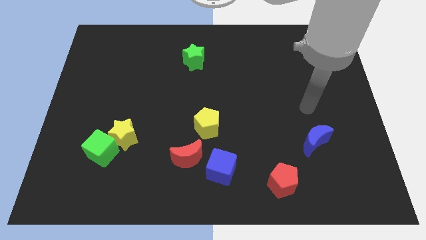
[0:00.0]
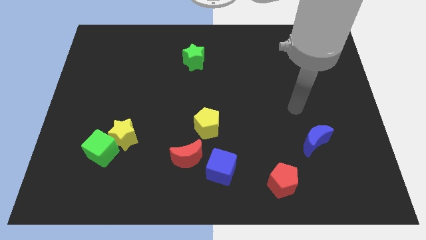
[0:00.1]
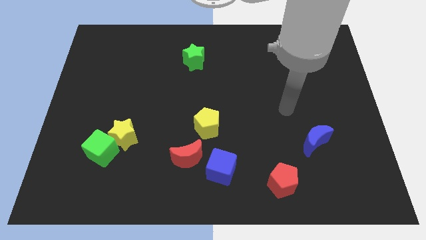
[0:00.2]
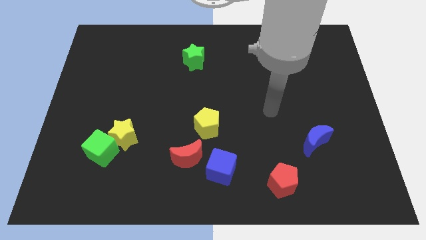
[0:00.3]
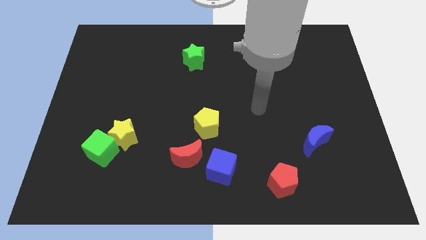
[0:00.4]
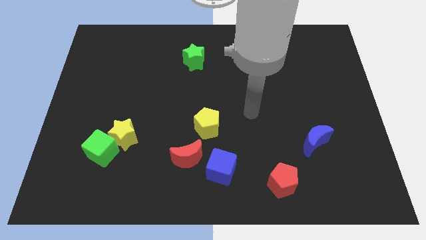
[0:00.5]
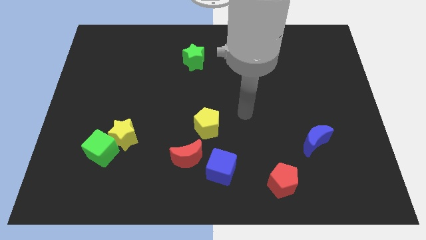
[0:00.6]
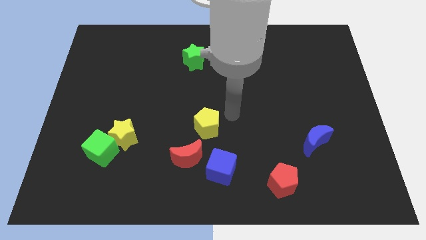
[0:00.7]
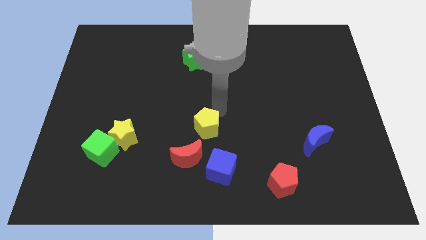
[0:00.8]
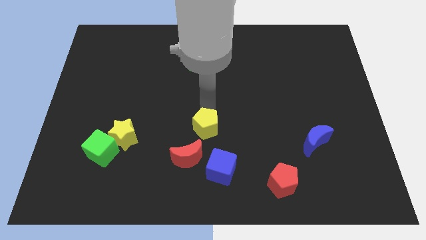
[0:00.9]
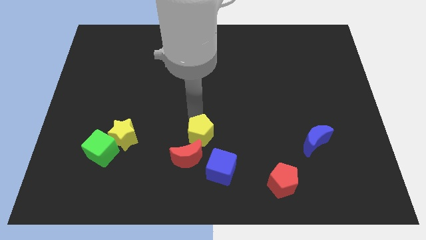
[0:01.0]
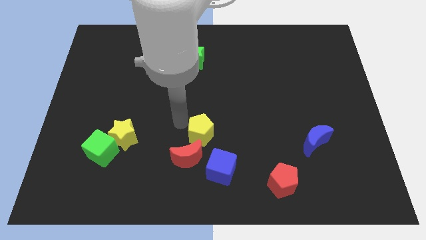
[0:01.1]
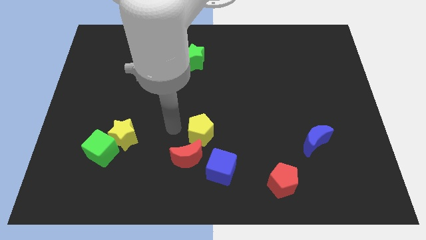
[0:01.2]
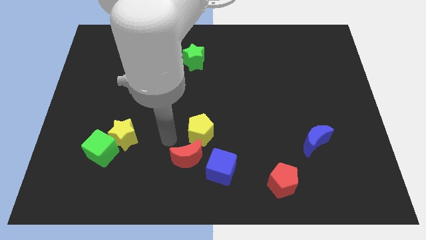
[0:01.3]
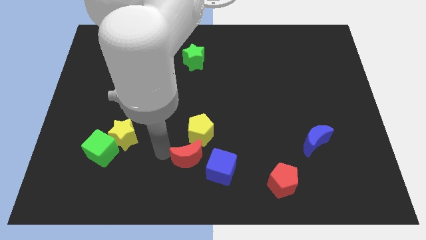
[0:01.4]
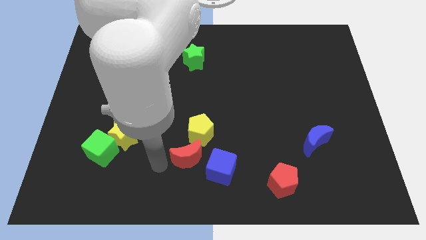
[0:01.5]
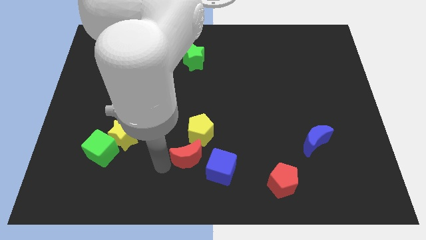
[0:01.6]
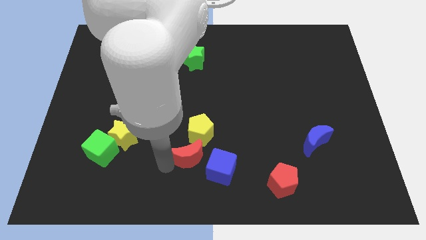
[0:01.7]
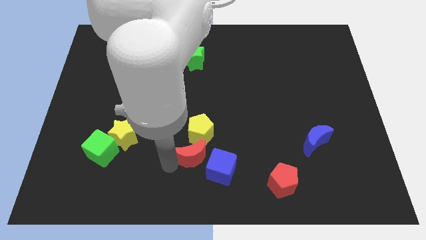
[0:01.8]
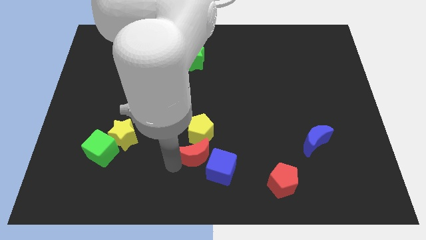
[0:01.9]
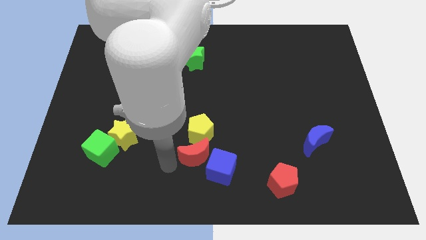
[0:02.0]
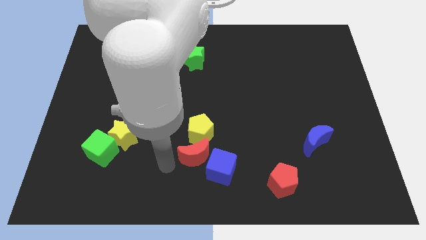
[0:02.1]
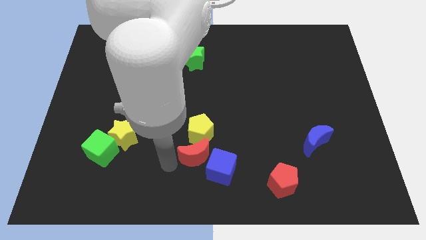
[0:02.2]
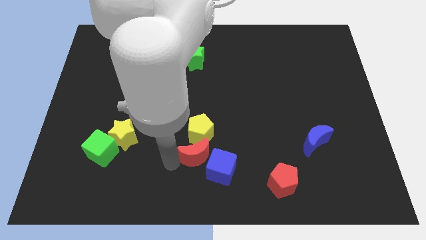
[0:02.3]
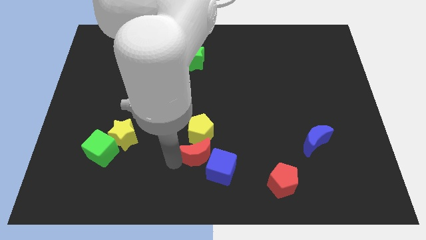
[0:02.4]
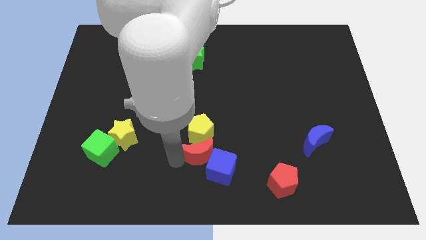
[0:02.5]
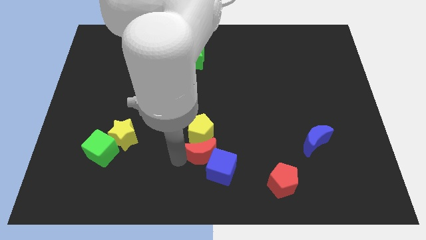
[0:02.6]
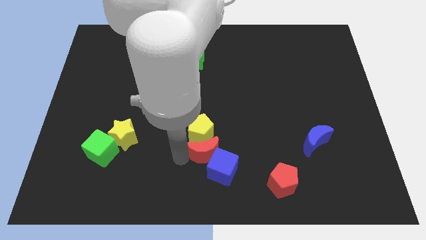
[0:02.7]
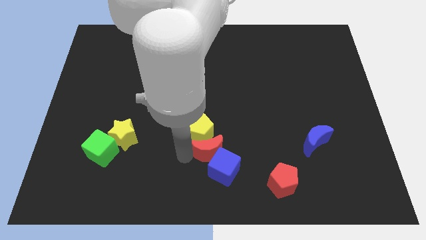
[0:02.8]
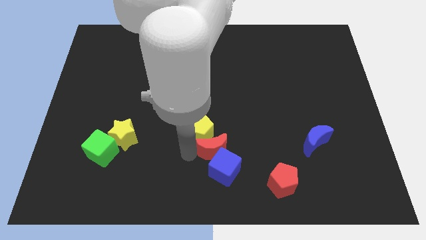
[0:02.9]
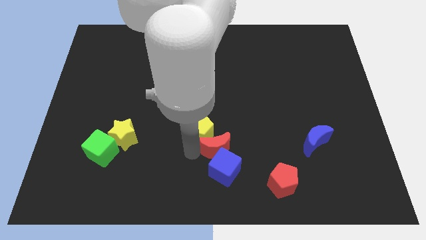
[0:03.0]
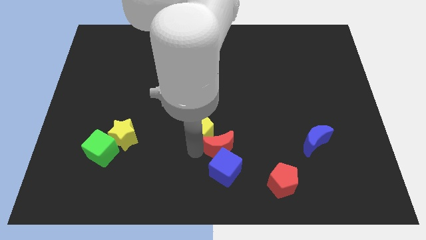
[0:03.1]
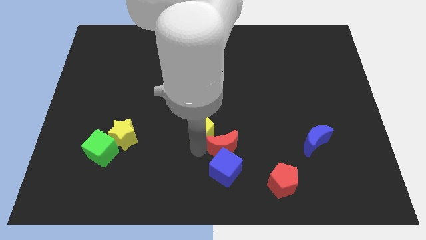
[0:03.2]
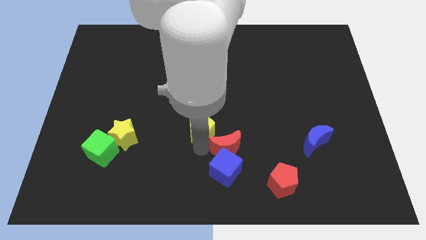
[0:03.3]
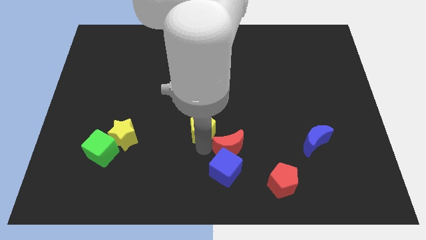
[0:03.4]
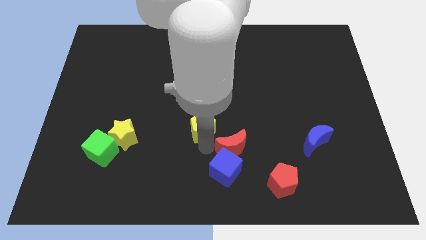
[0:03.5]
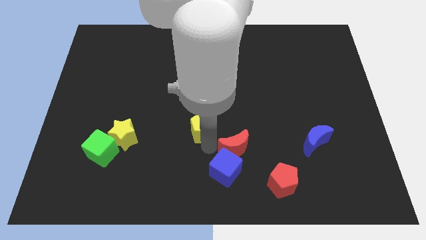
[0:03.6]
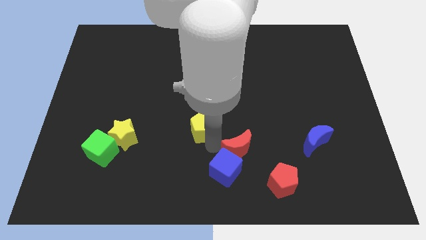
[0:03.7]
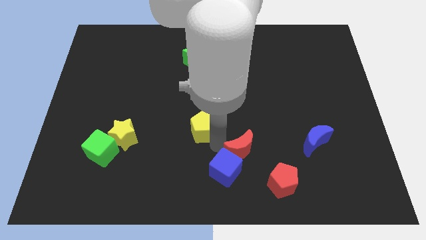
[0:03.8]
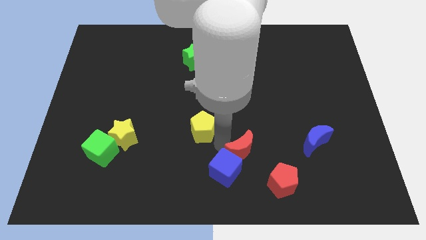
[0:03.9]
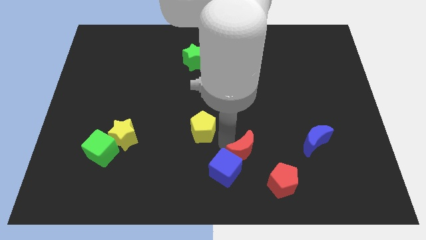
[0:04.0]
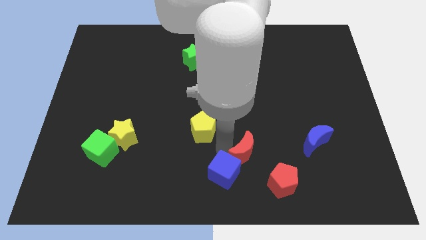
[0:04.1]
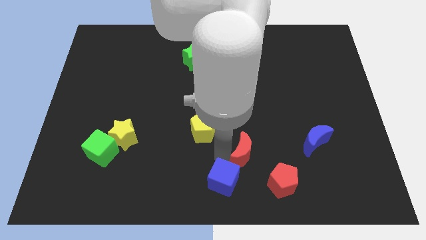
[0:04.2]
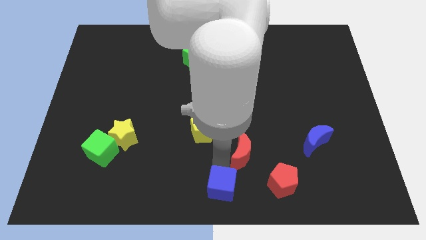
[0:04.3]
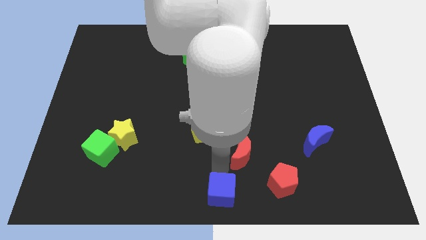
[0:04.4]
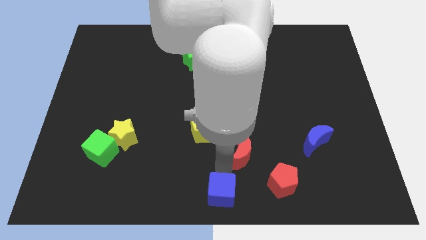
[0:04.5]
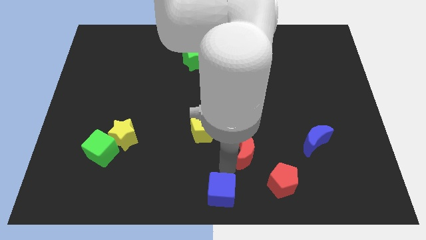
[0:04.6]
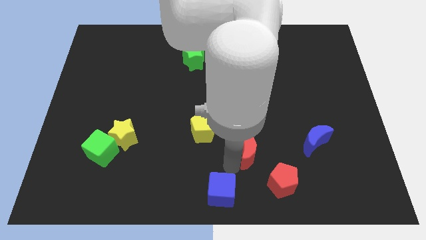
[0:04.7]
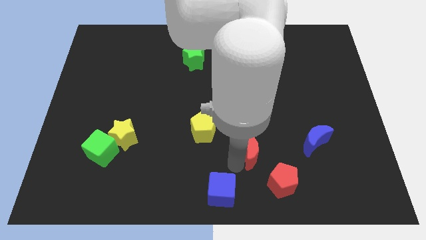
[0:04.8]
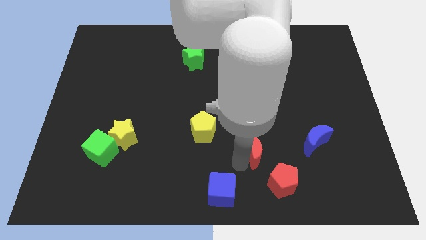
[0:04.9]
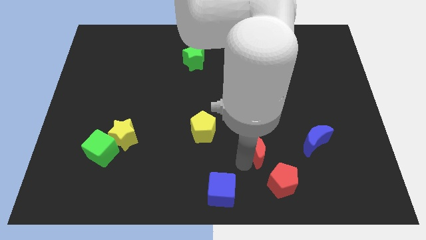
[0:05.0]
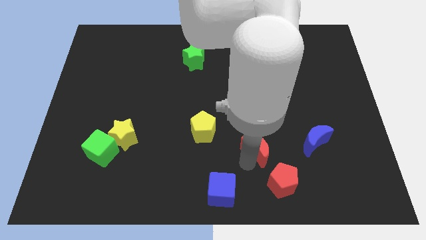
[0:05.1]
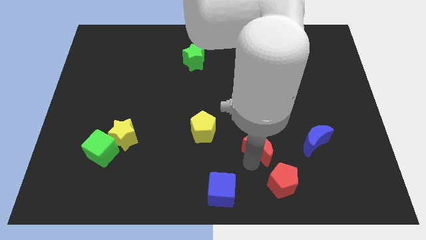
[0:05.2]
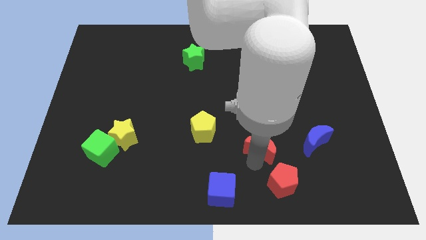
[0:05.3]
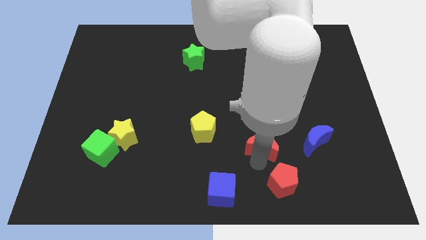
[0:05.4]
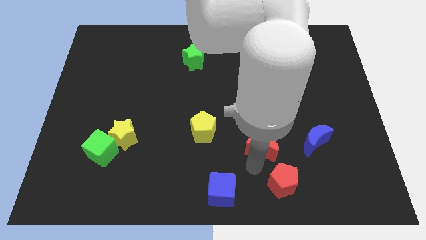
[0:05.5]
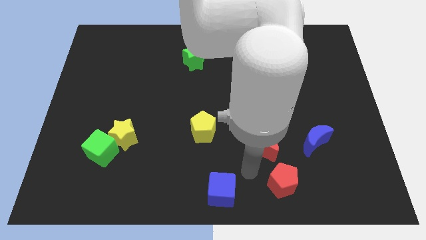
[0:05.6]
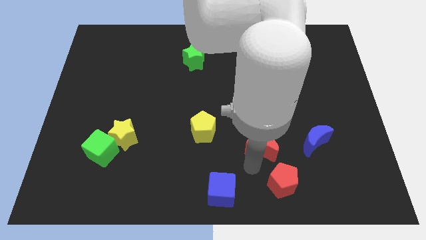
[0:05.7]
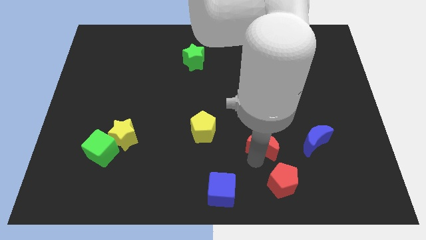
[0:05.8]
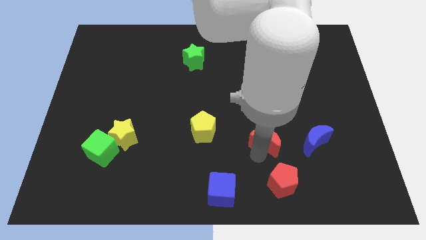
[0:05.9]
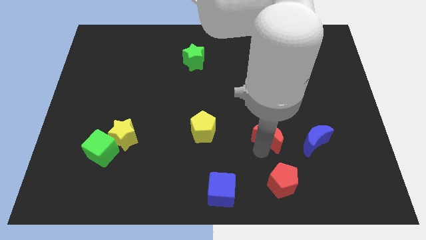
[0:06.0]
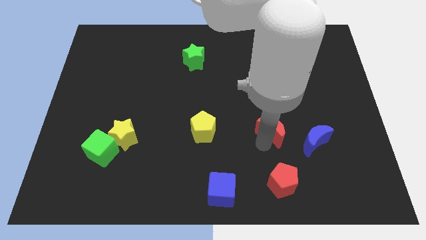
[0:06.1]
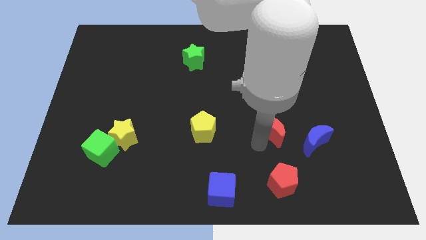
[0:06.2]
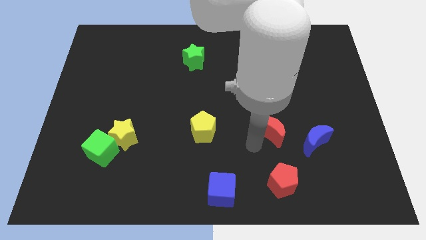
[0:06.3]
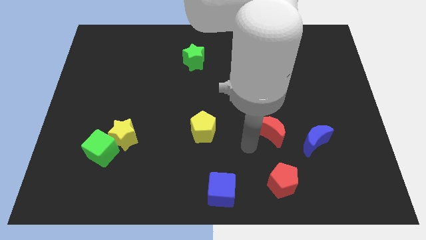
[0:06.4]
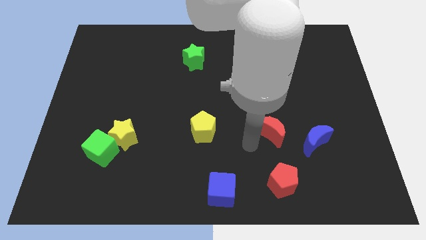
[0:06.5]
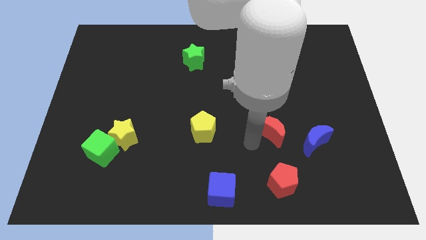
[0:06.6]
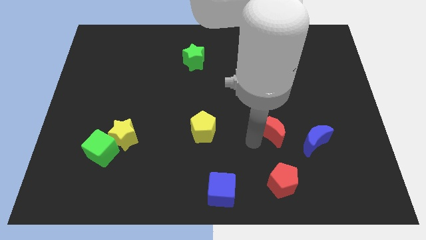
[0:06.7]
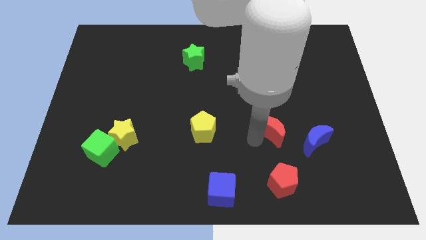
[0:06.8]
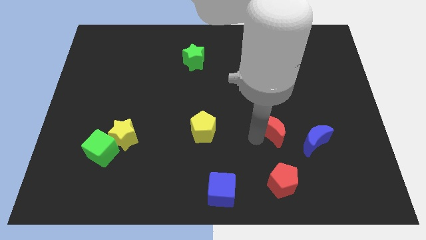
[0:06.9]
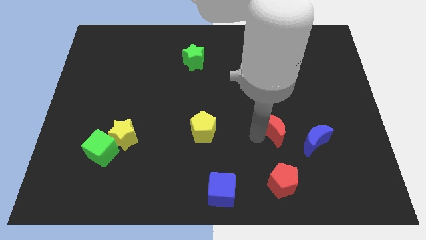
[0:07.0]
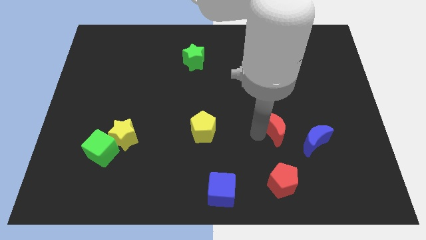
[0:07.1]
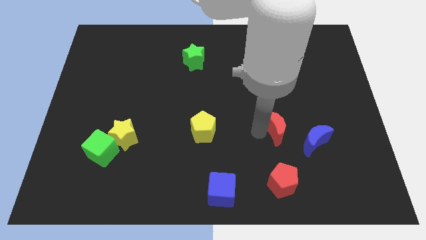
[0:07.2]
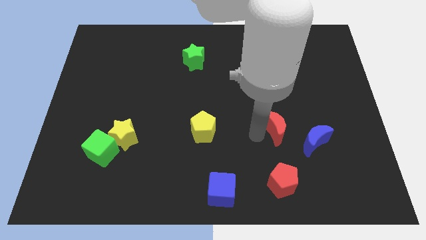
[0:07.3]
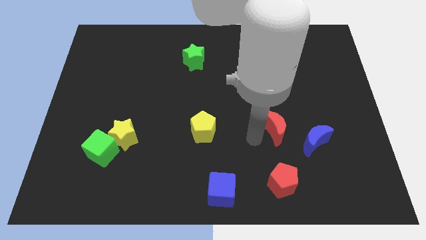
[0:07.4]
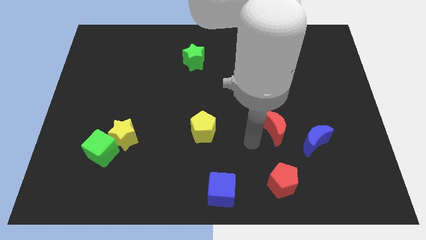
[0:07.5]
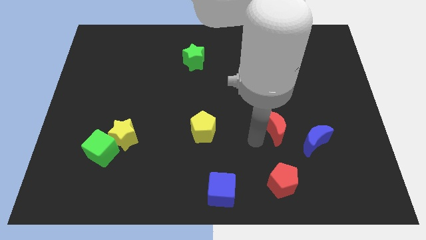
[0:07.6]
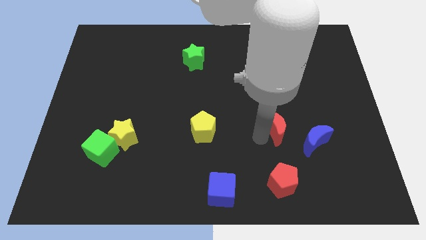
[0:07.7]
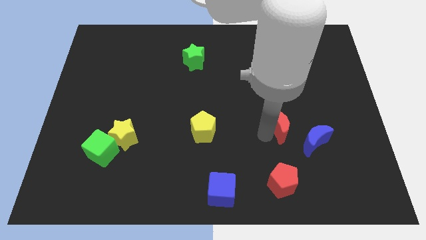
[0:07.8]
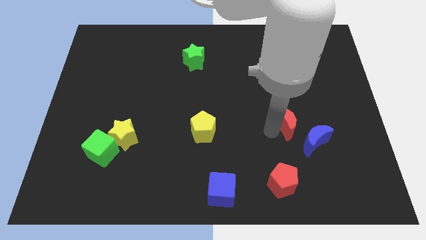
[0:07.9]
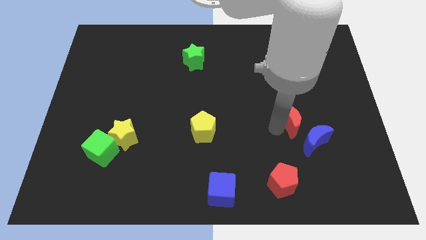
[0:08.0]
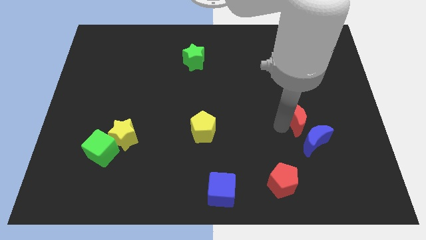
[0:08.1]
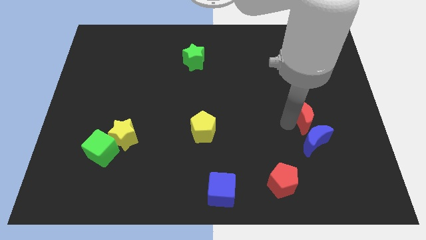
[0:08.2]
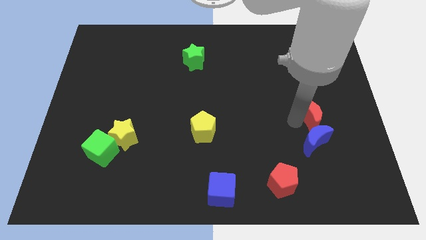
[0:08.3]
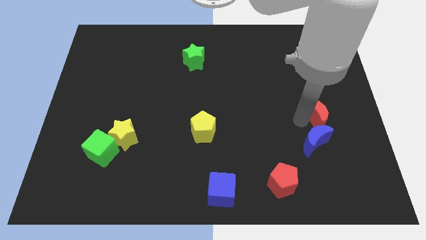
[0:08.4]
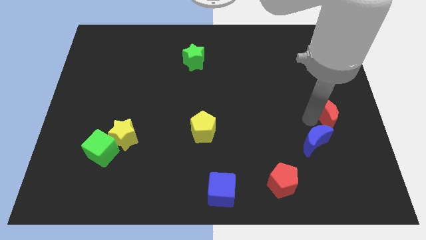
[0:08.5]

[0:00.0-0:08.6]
push the red moon to the right side
